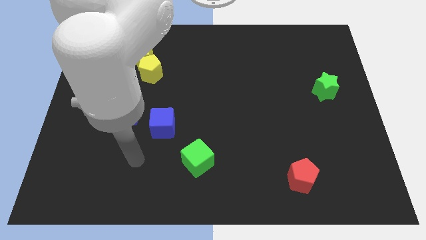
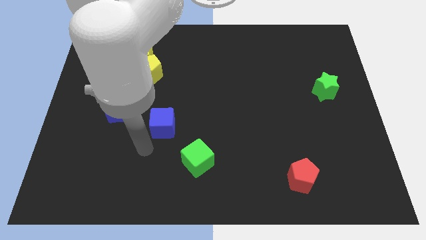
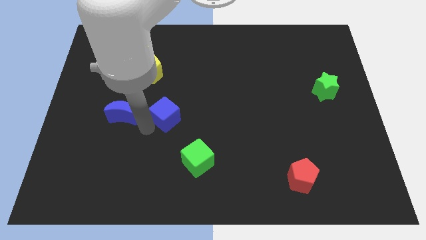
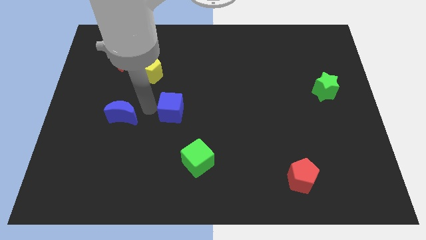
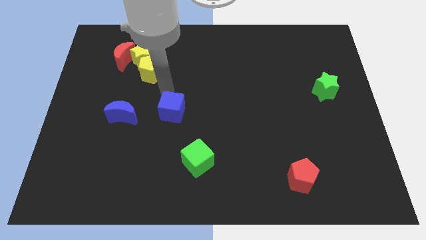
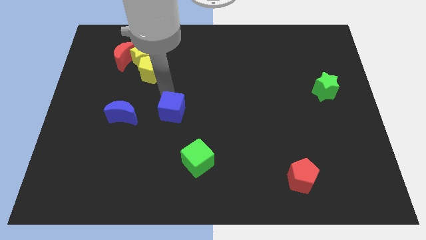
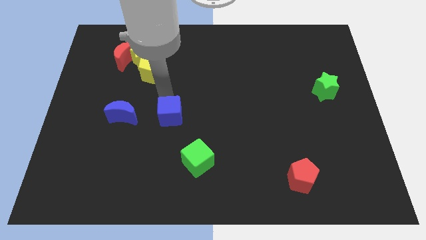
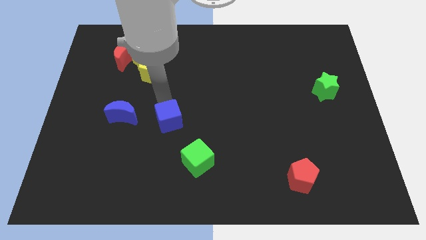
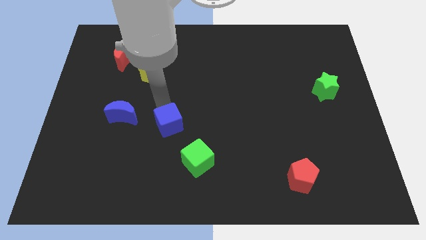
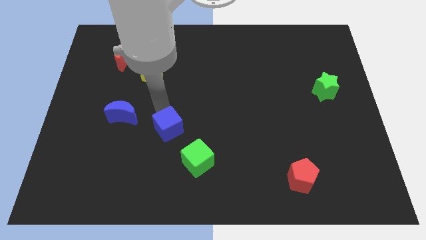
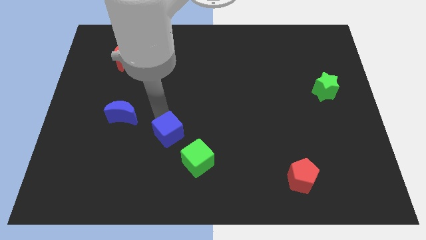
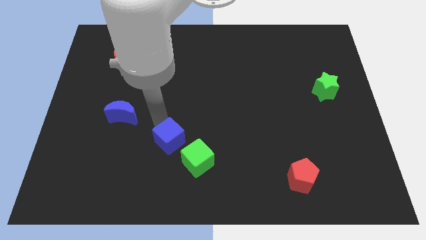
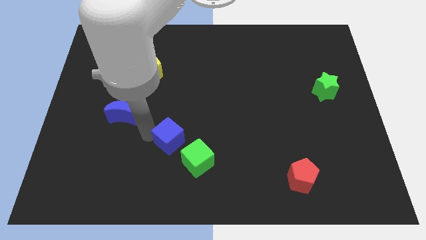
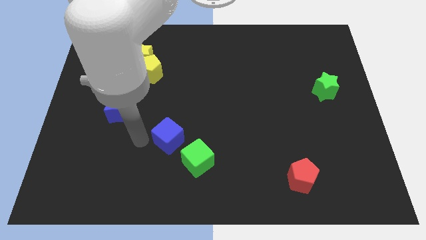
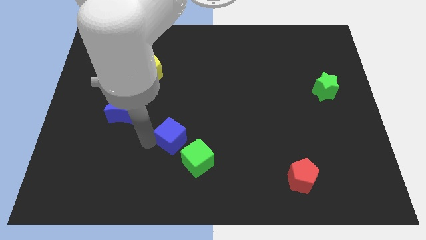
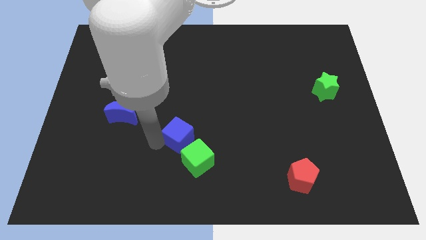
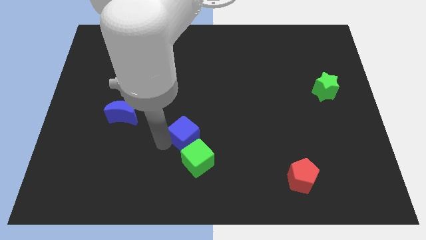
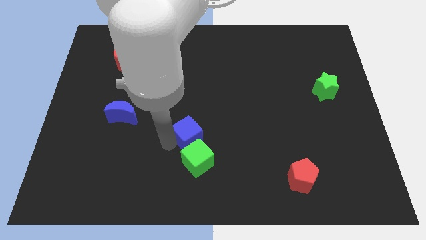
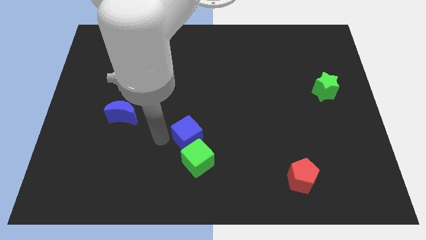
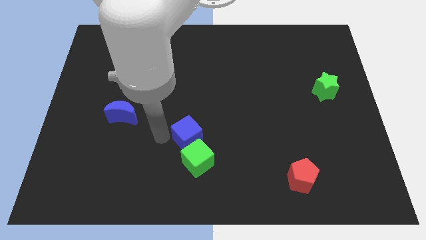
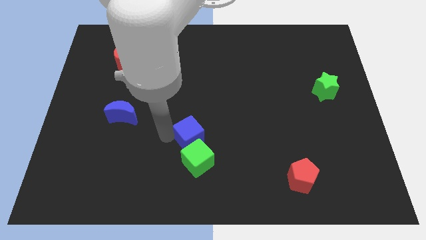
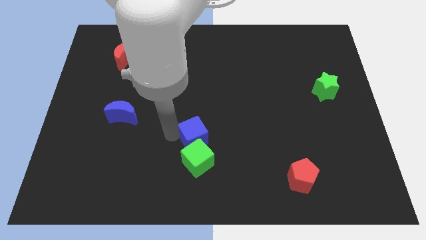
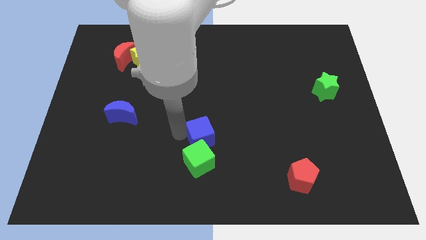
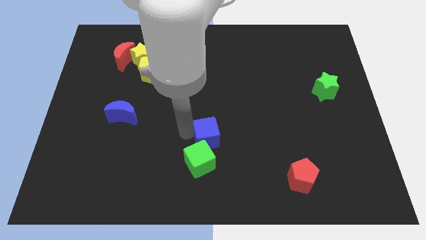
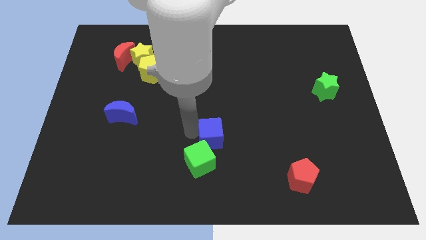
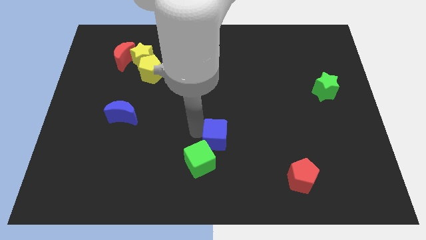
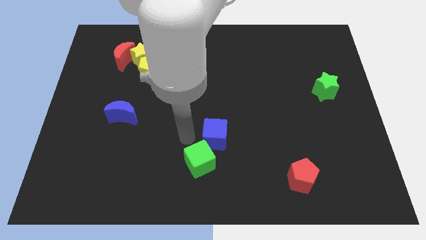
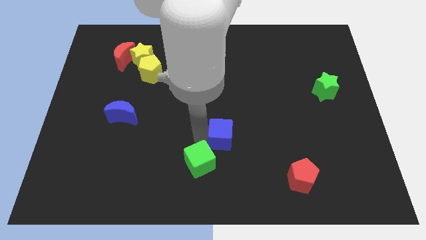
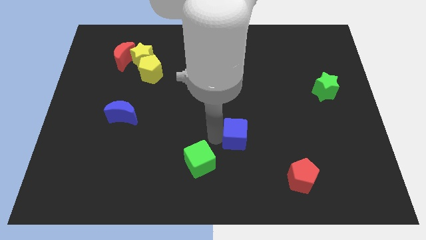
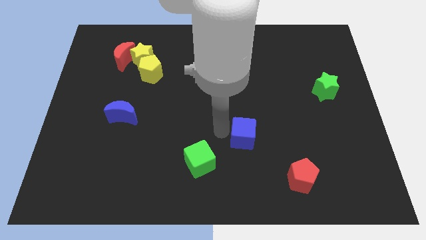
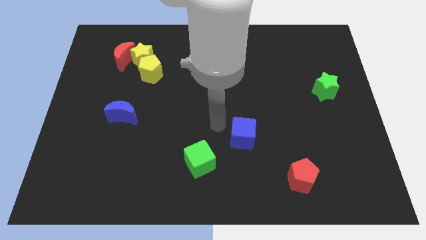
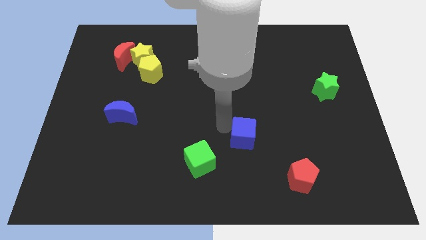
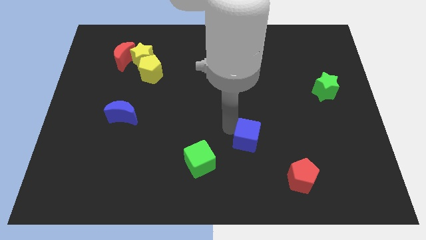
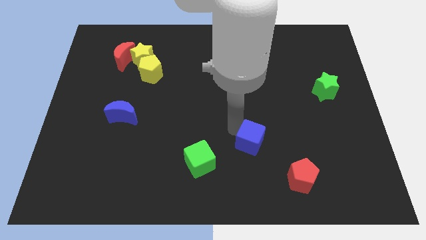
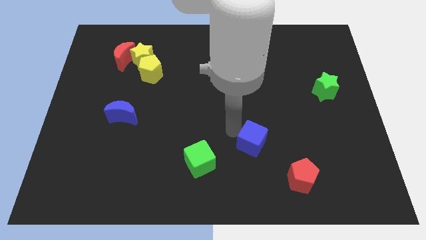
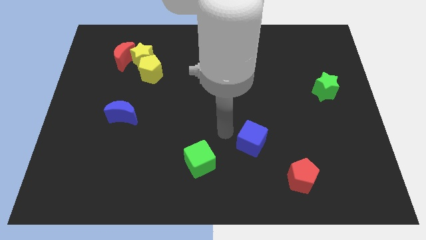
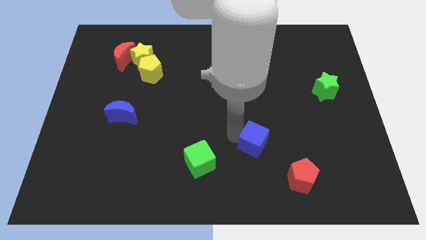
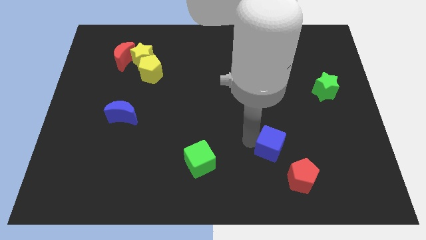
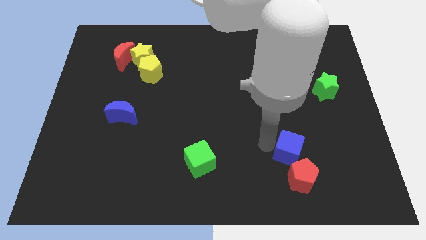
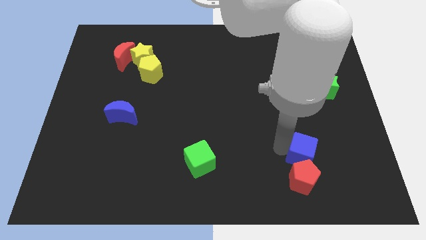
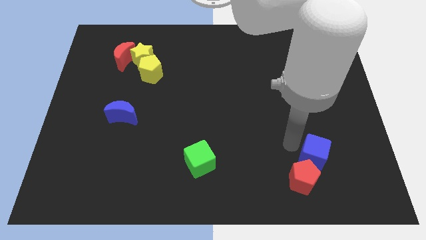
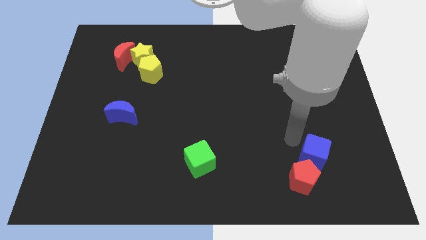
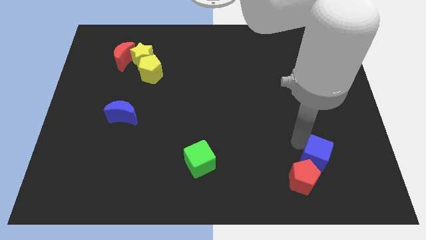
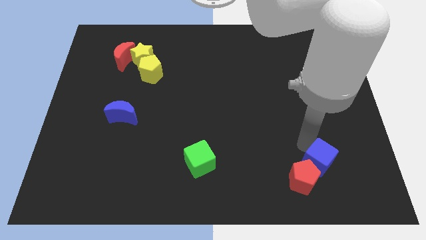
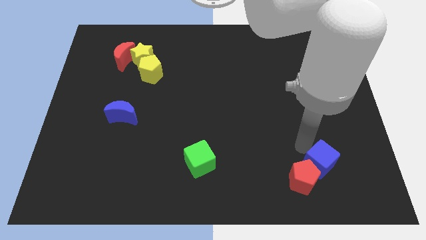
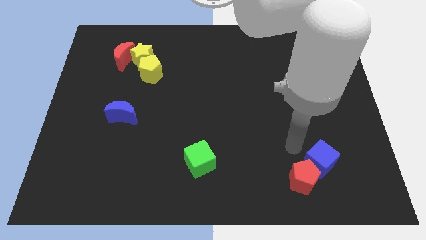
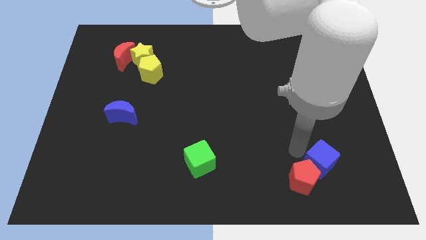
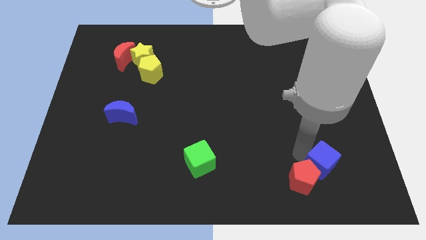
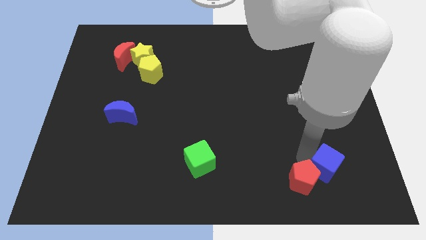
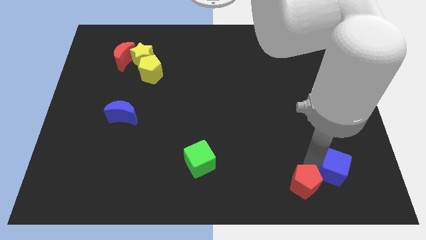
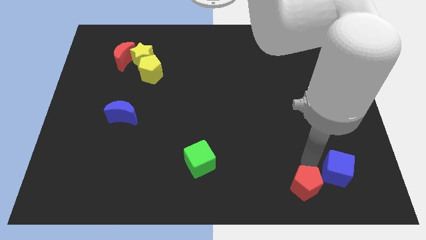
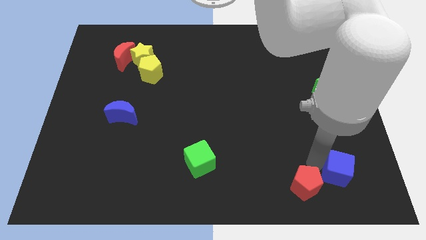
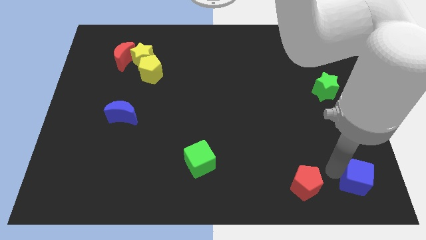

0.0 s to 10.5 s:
slide the blue cube to the bottom right

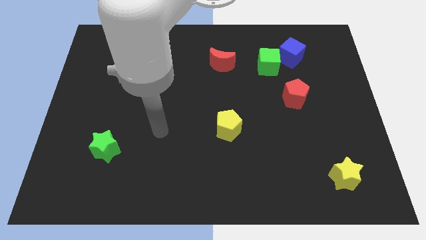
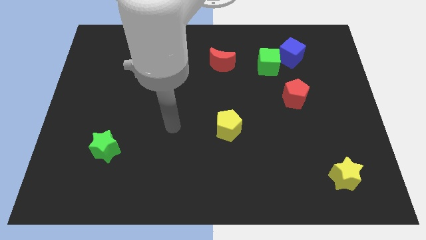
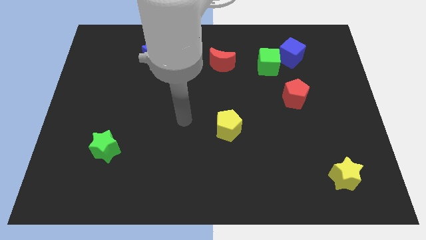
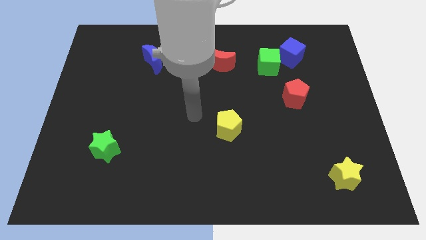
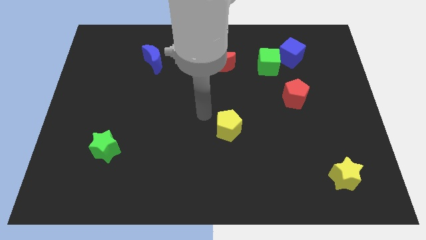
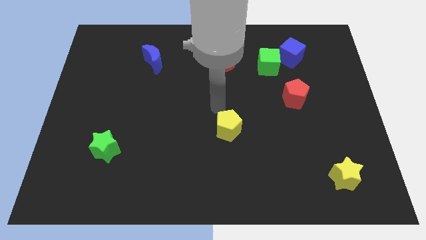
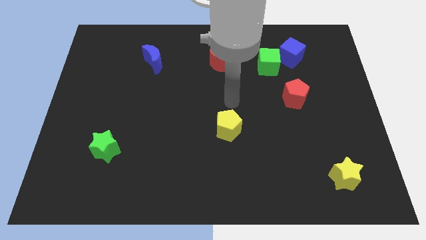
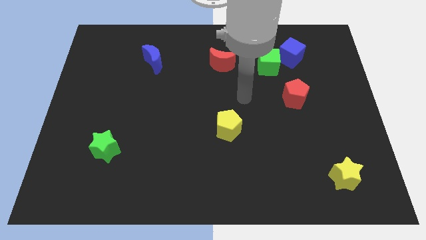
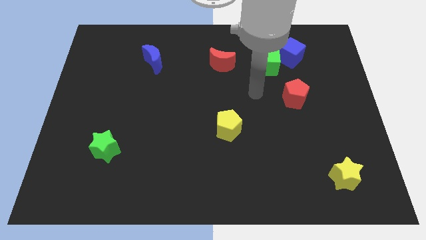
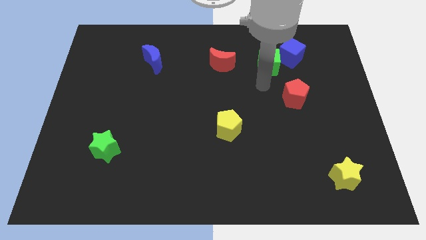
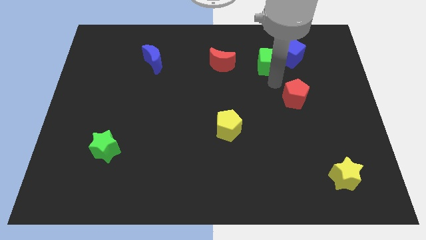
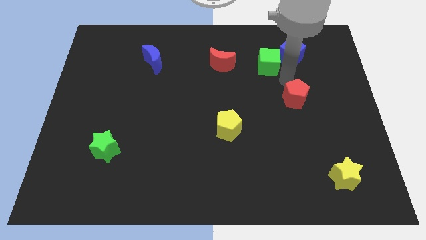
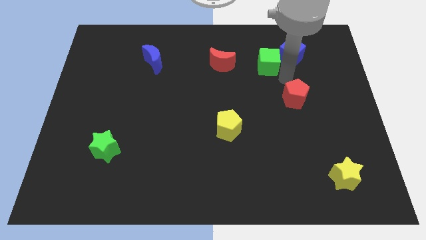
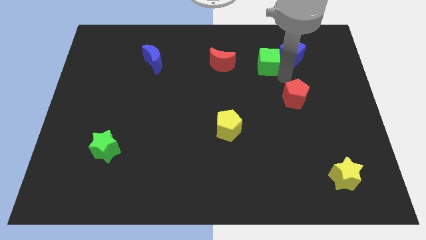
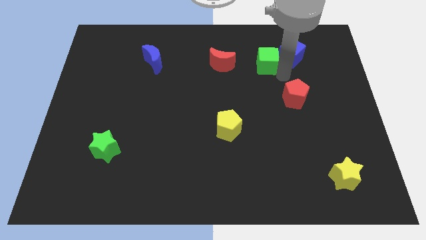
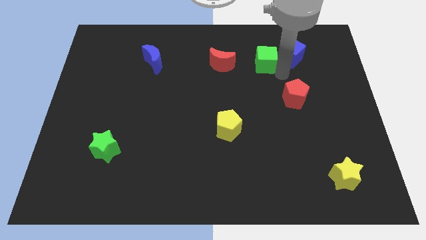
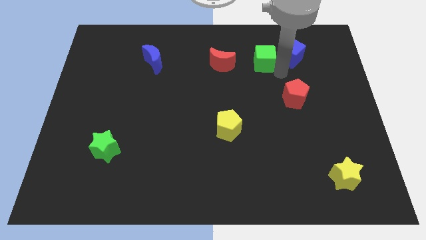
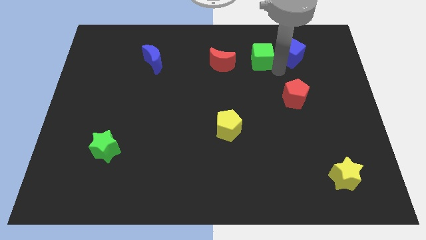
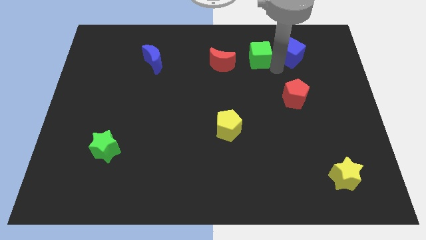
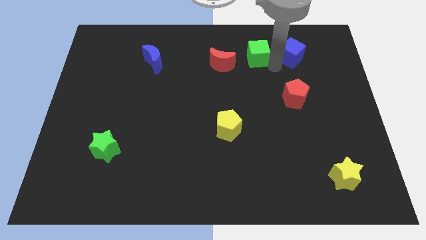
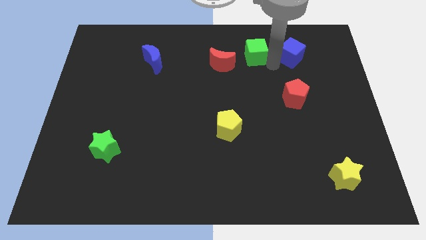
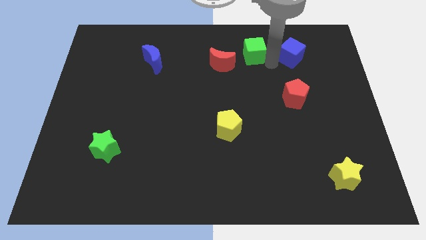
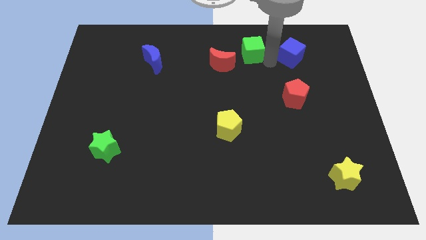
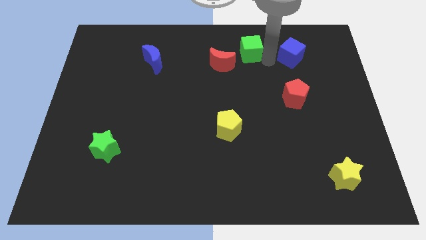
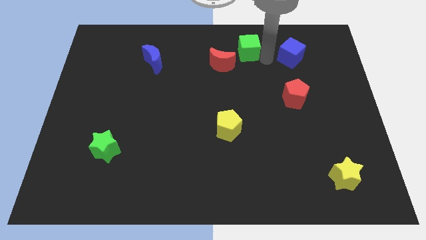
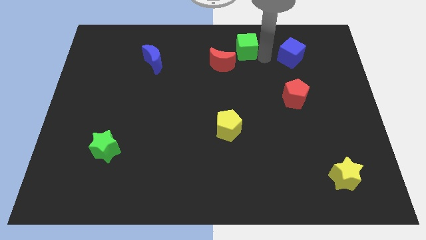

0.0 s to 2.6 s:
slide the green cube to the top side
